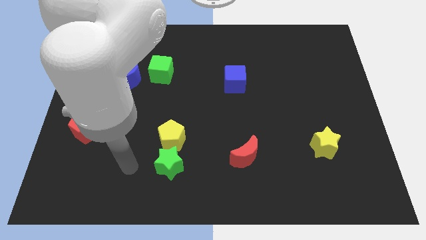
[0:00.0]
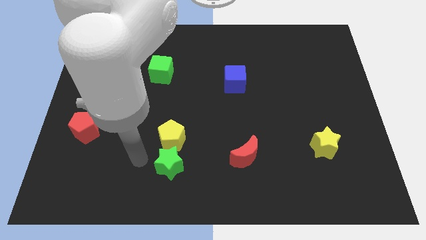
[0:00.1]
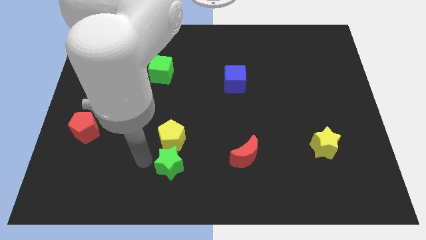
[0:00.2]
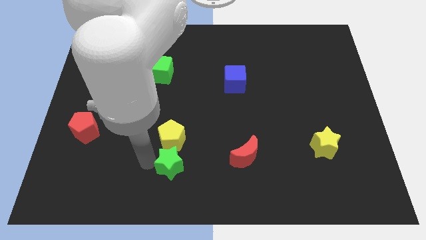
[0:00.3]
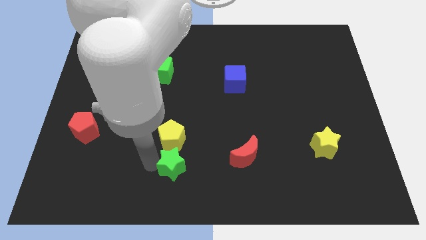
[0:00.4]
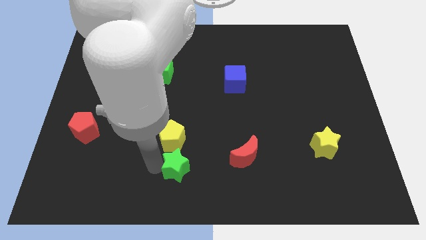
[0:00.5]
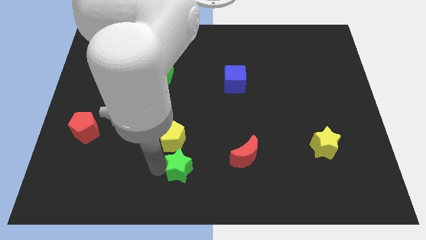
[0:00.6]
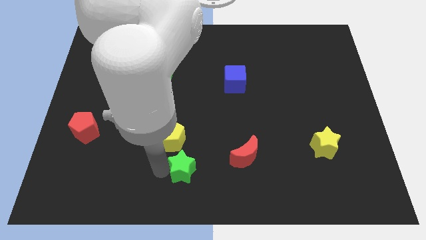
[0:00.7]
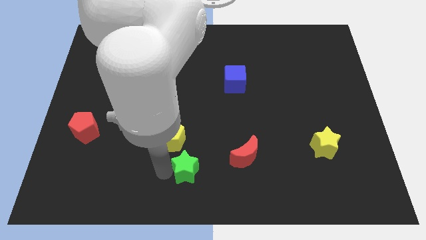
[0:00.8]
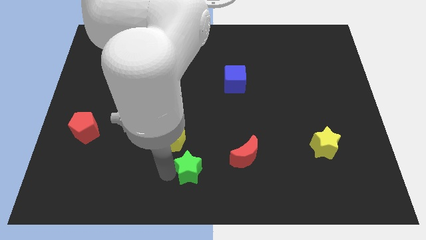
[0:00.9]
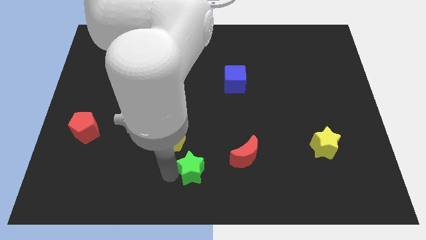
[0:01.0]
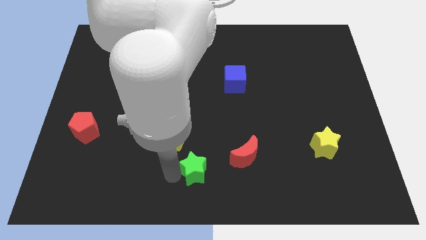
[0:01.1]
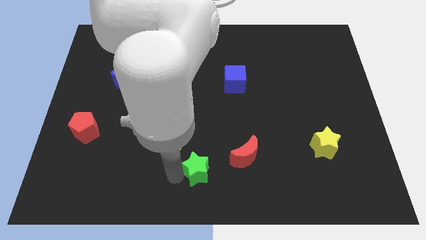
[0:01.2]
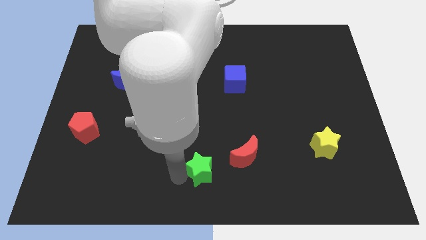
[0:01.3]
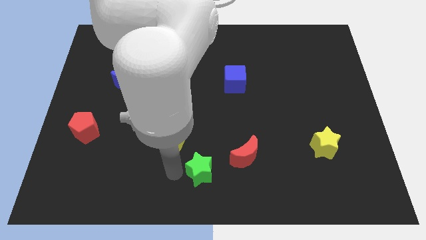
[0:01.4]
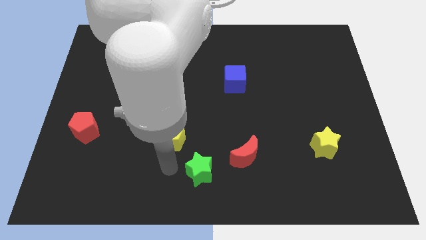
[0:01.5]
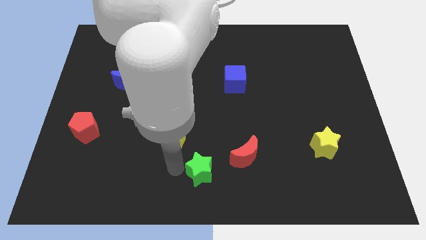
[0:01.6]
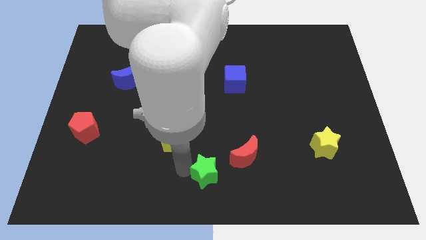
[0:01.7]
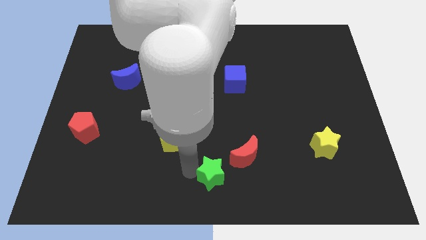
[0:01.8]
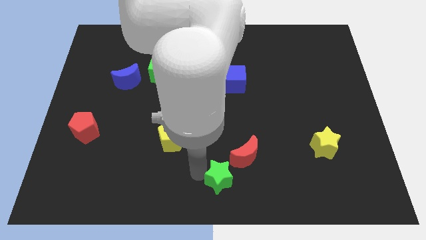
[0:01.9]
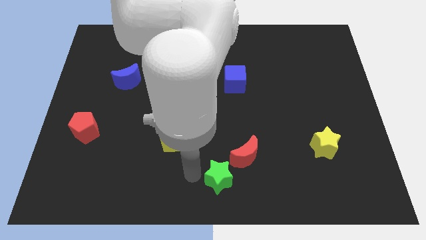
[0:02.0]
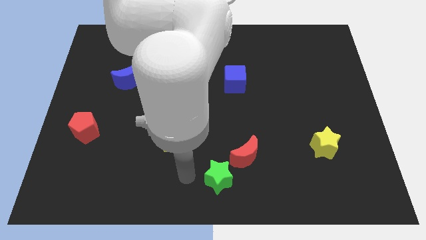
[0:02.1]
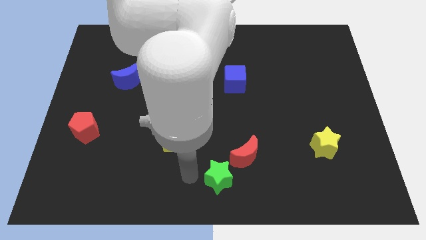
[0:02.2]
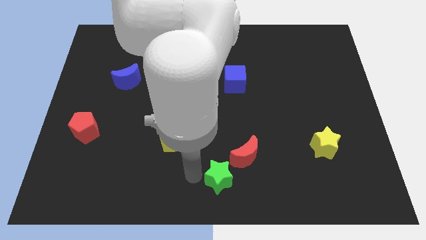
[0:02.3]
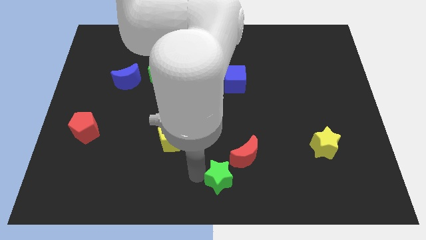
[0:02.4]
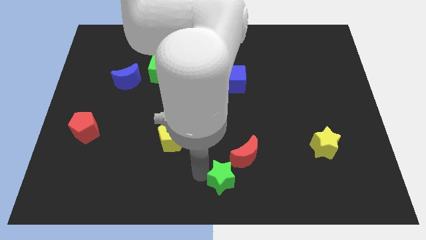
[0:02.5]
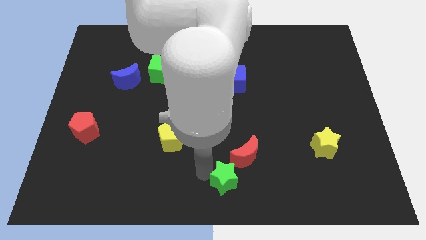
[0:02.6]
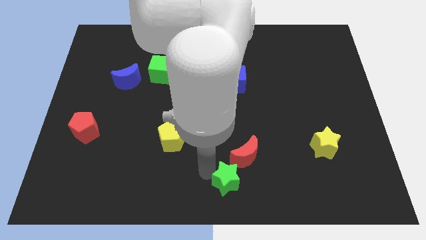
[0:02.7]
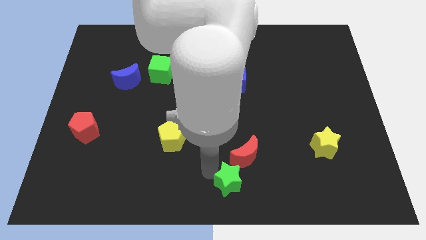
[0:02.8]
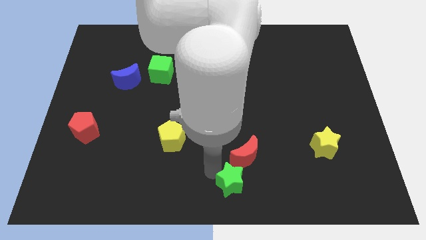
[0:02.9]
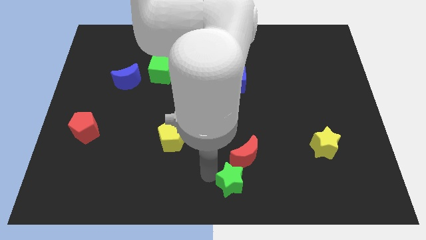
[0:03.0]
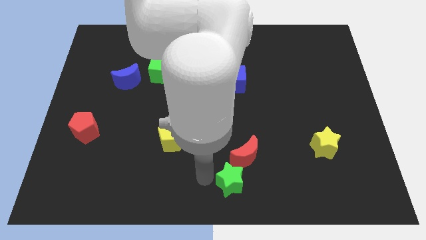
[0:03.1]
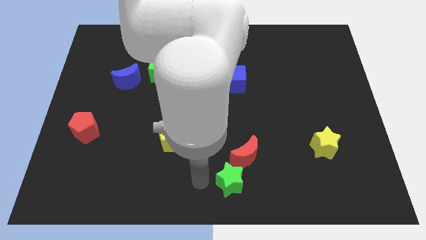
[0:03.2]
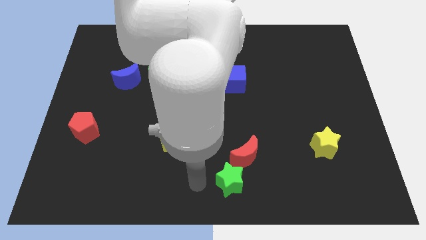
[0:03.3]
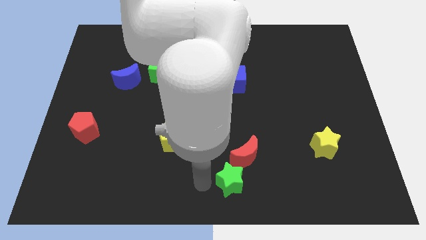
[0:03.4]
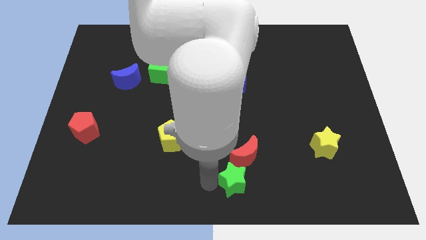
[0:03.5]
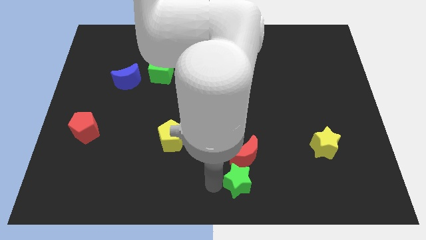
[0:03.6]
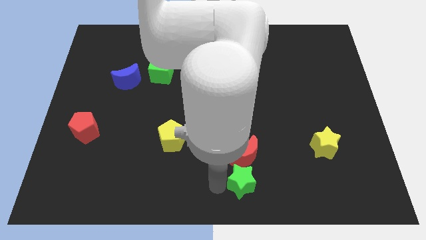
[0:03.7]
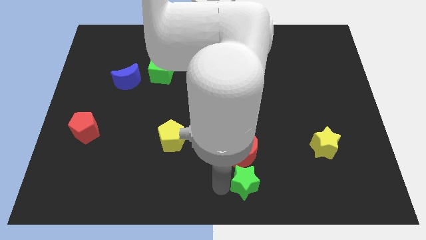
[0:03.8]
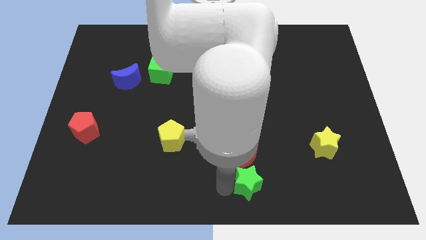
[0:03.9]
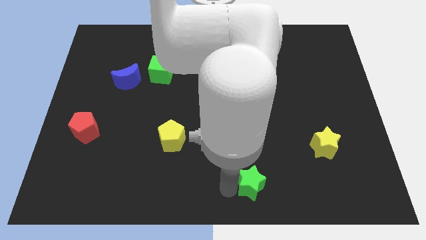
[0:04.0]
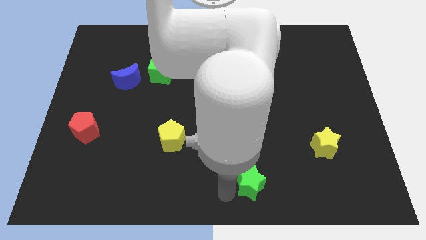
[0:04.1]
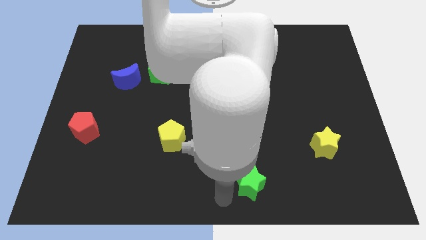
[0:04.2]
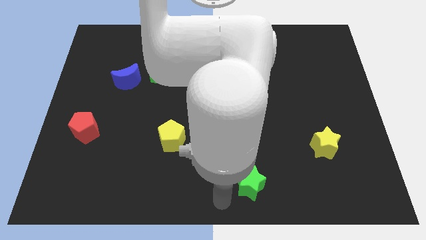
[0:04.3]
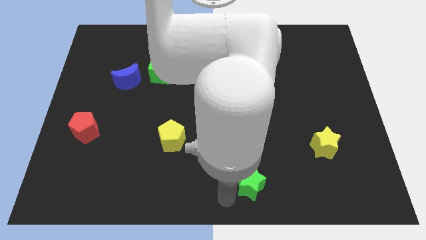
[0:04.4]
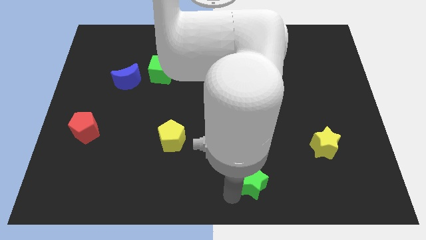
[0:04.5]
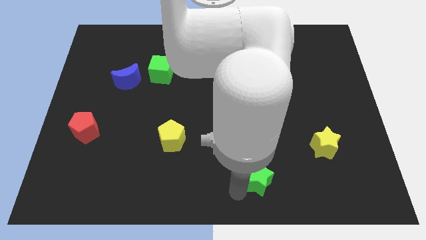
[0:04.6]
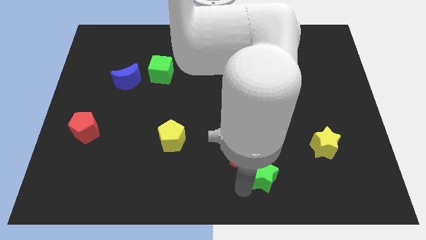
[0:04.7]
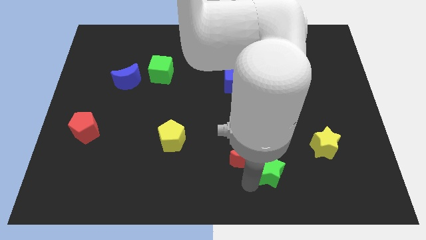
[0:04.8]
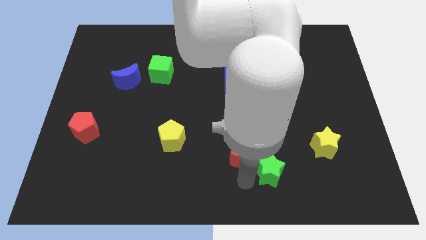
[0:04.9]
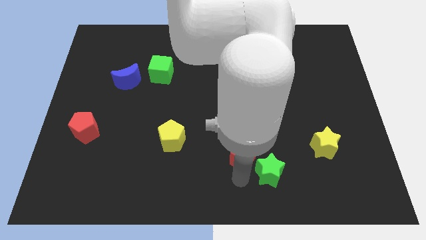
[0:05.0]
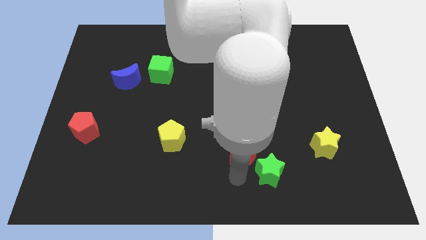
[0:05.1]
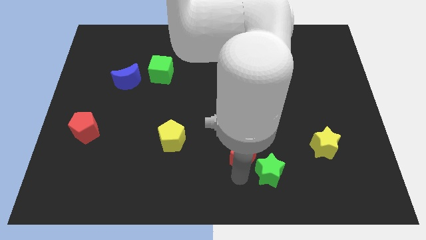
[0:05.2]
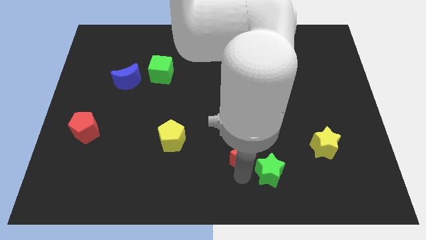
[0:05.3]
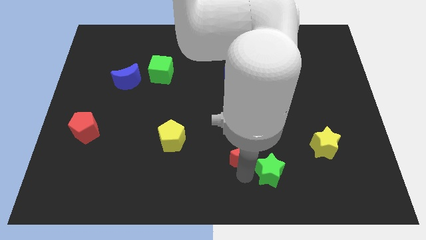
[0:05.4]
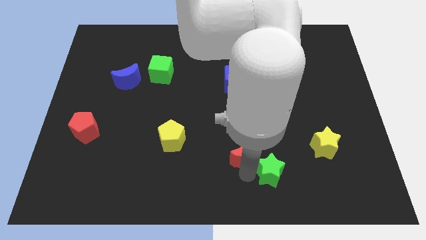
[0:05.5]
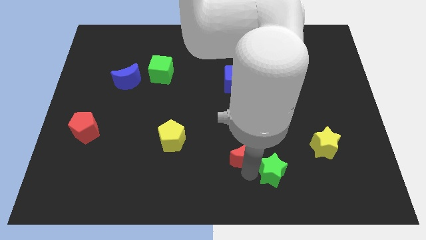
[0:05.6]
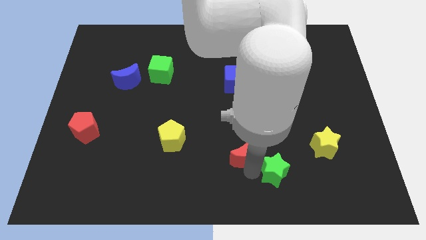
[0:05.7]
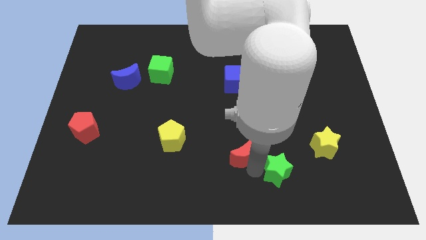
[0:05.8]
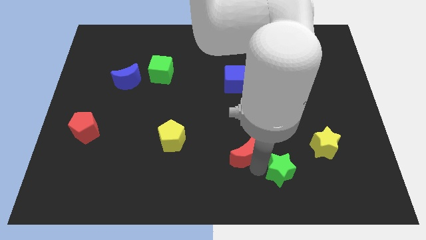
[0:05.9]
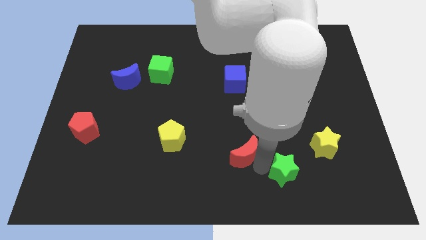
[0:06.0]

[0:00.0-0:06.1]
put the green star to the bottom left of the yellow star

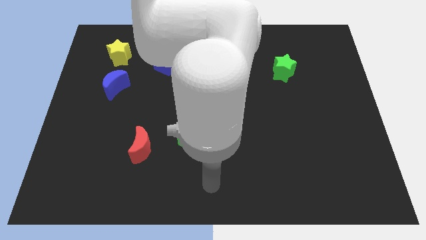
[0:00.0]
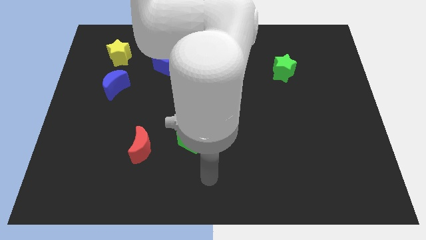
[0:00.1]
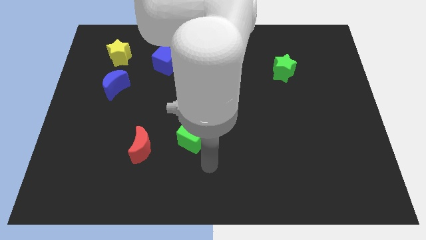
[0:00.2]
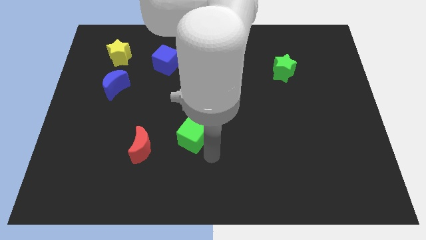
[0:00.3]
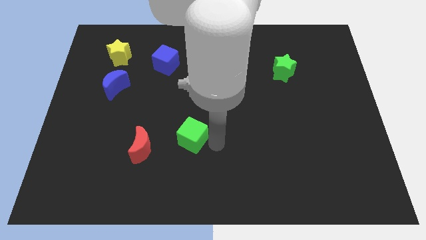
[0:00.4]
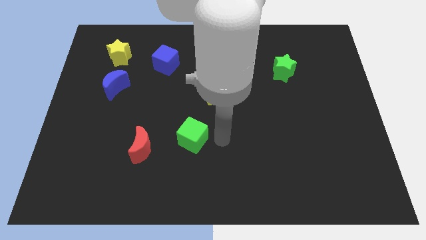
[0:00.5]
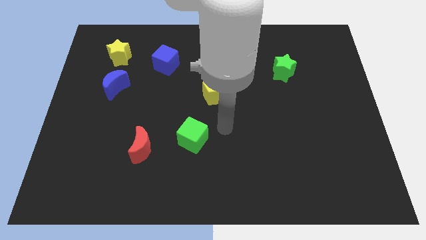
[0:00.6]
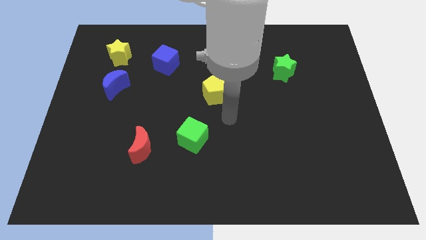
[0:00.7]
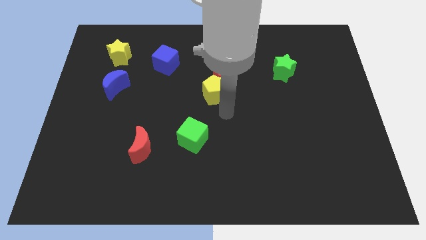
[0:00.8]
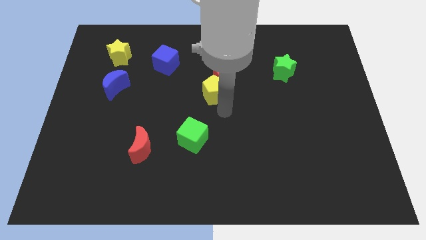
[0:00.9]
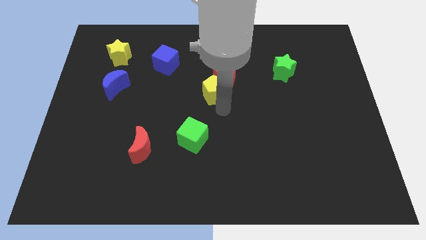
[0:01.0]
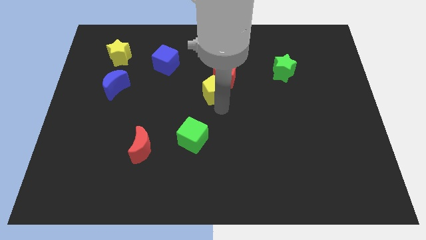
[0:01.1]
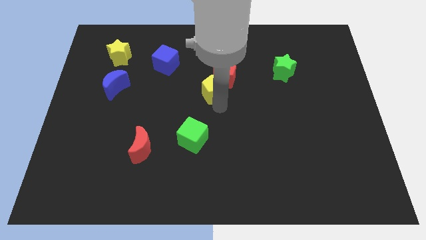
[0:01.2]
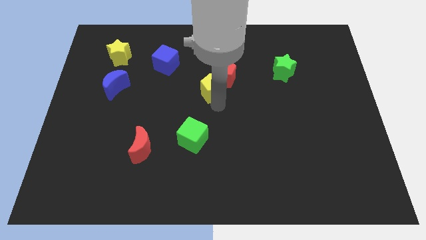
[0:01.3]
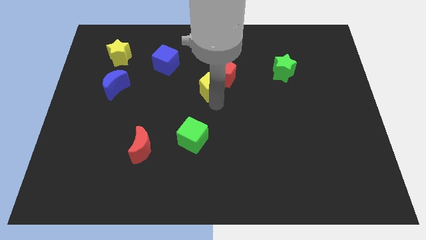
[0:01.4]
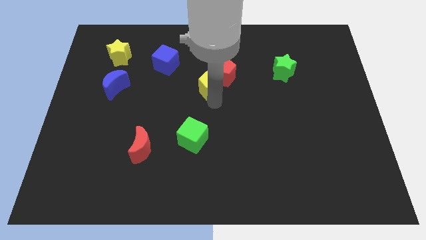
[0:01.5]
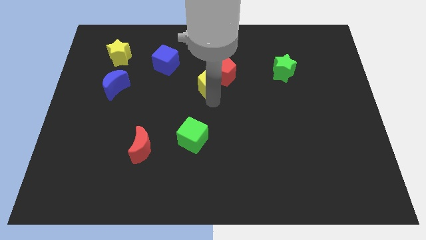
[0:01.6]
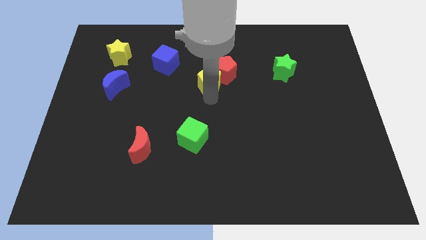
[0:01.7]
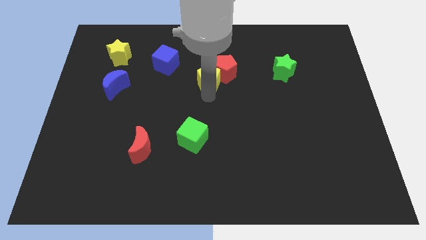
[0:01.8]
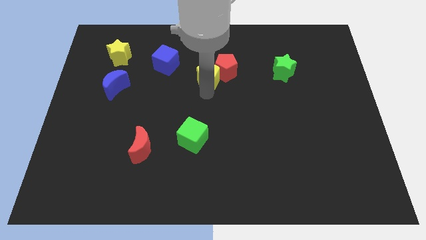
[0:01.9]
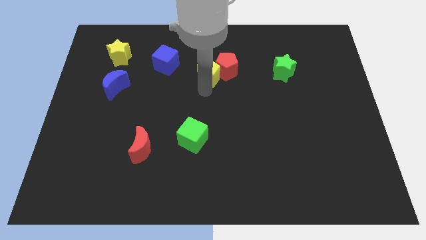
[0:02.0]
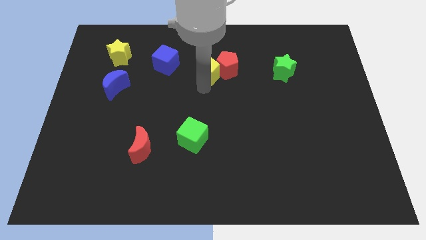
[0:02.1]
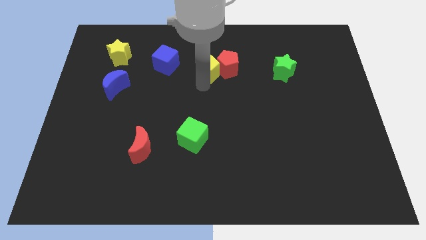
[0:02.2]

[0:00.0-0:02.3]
slide the yellow pentagon to the top left of the red pentagon
